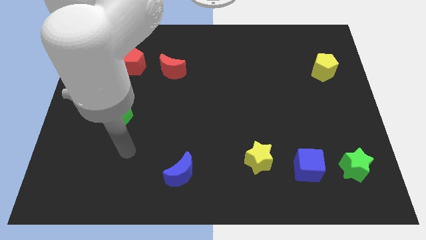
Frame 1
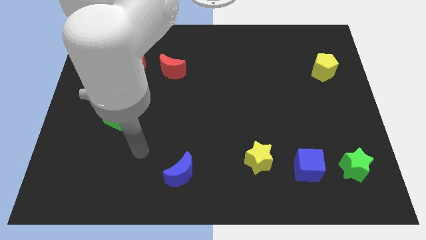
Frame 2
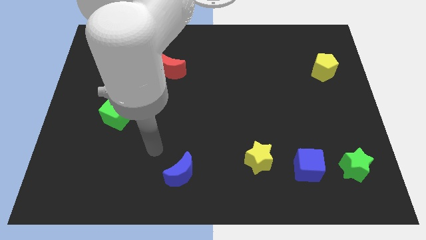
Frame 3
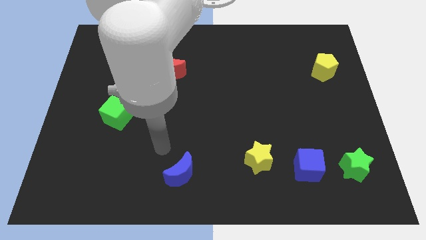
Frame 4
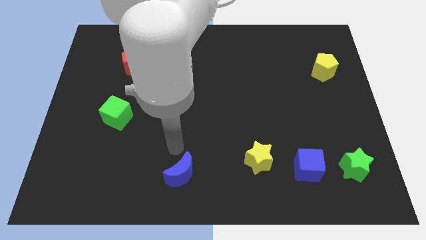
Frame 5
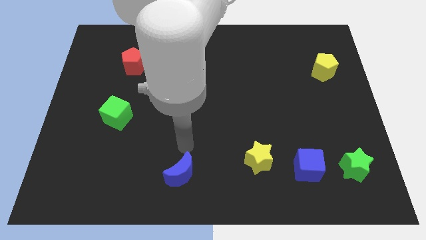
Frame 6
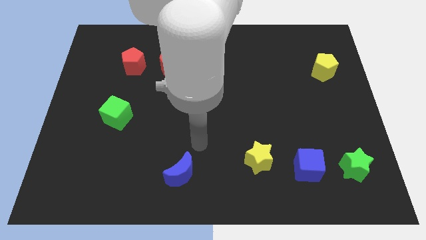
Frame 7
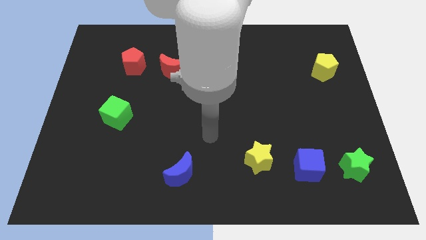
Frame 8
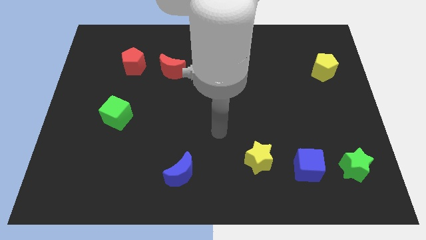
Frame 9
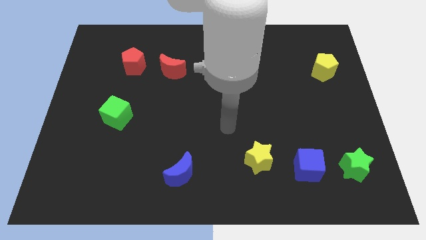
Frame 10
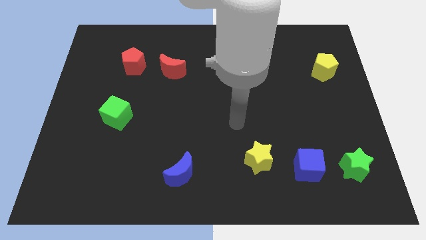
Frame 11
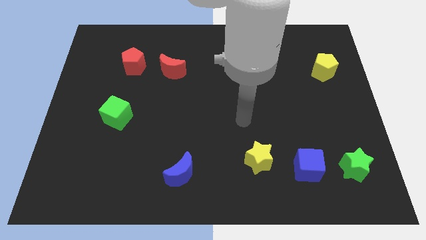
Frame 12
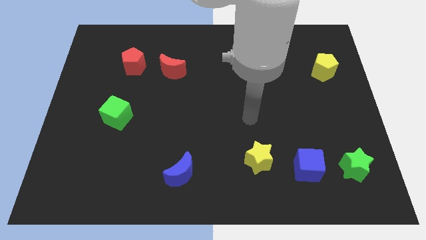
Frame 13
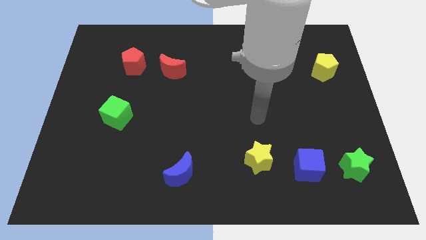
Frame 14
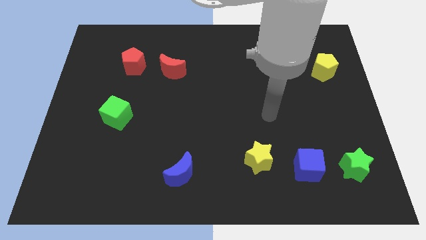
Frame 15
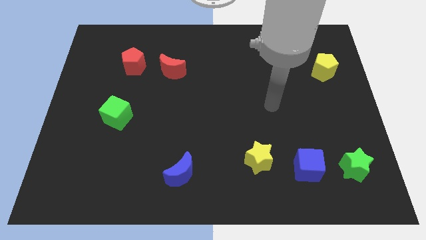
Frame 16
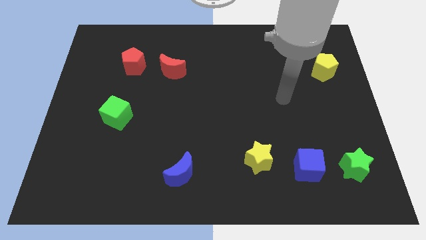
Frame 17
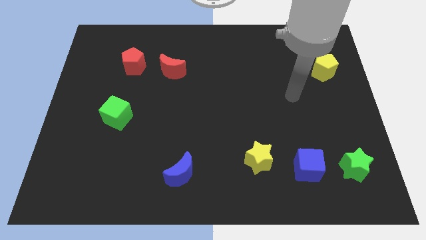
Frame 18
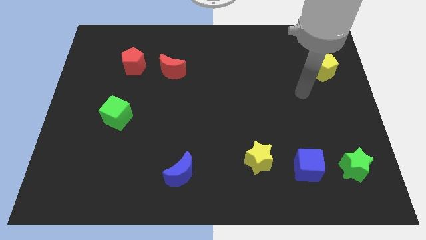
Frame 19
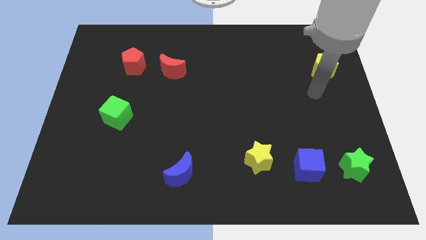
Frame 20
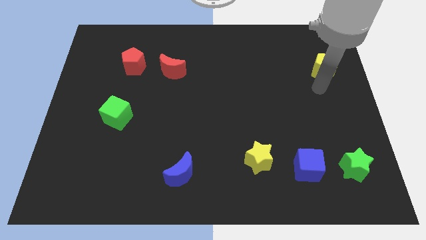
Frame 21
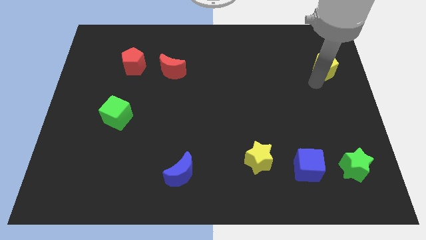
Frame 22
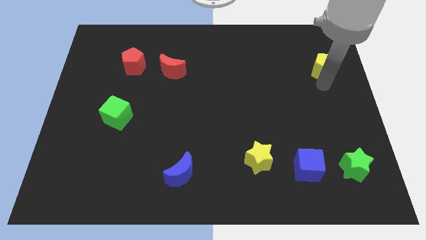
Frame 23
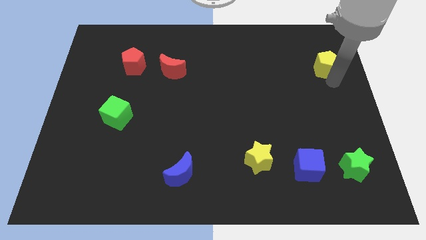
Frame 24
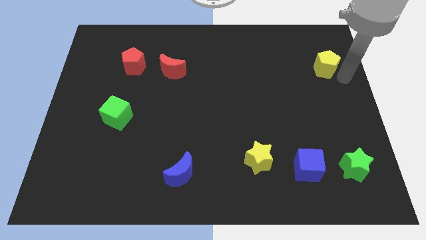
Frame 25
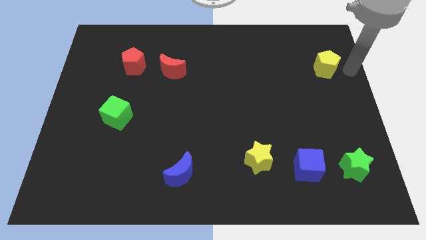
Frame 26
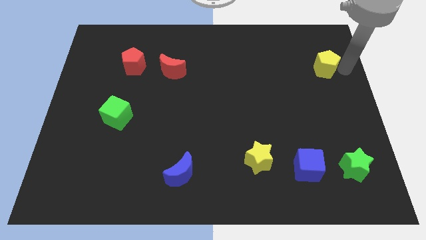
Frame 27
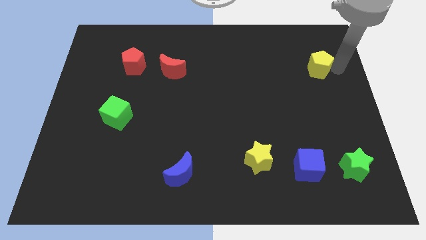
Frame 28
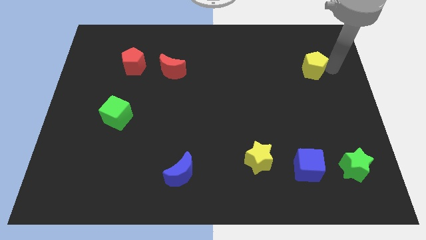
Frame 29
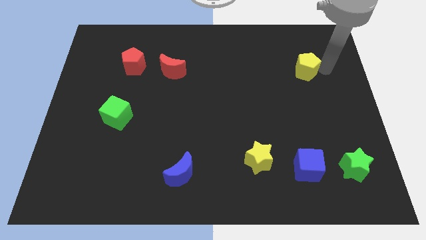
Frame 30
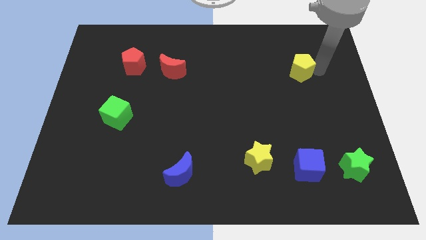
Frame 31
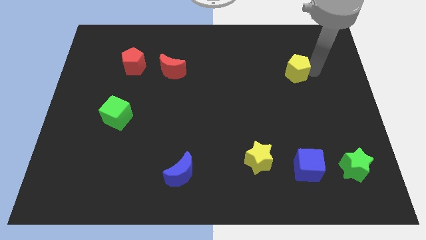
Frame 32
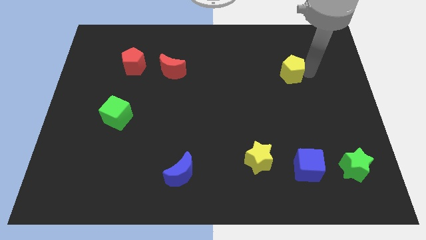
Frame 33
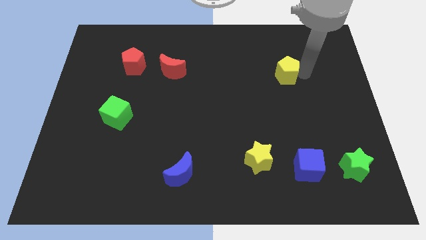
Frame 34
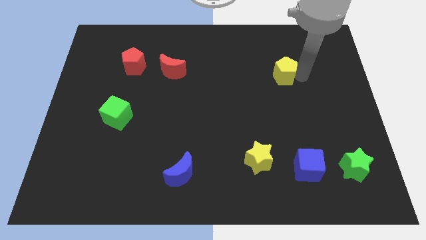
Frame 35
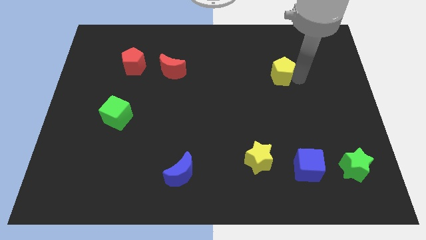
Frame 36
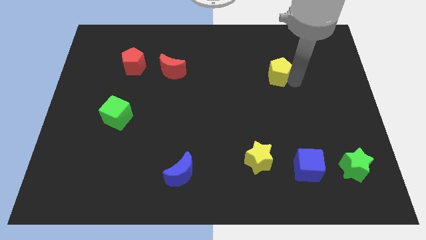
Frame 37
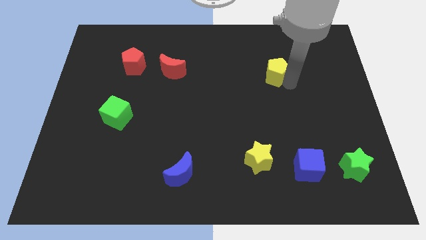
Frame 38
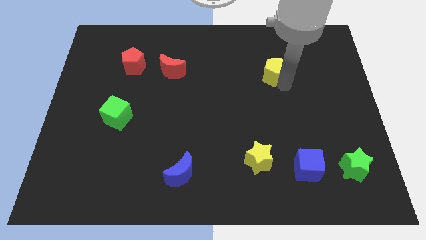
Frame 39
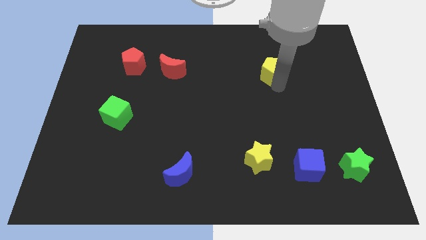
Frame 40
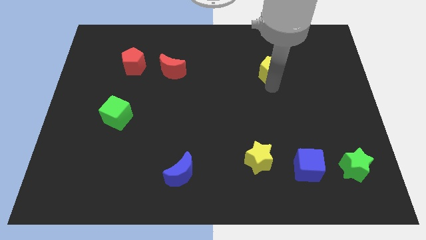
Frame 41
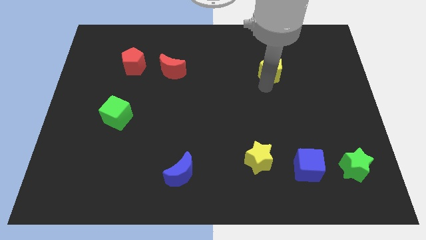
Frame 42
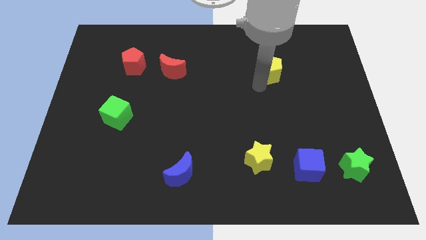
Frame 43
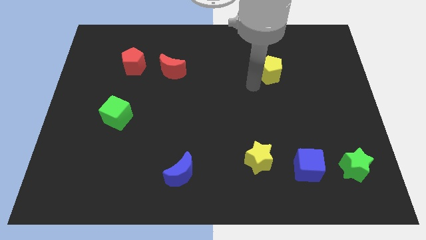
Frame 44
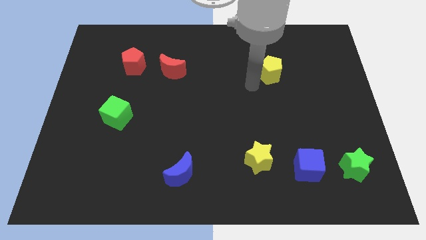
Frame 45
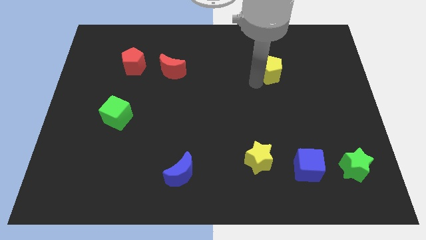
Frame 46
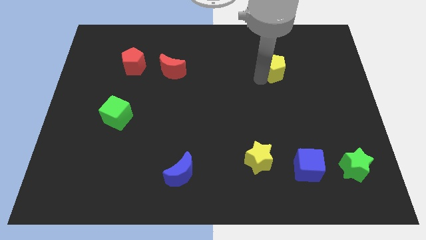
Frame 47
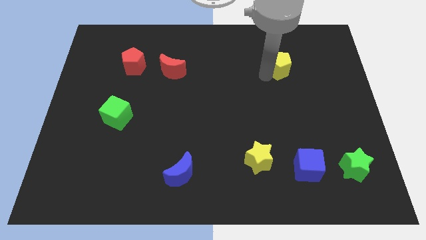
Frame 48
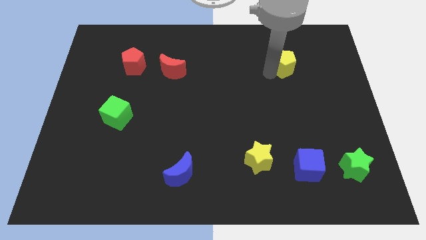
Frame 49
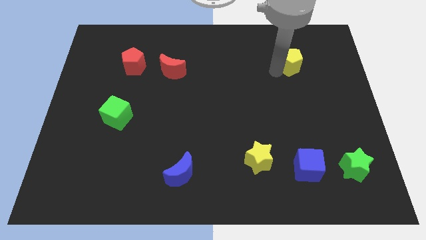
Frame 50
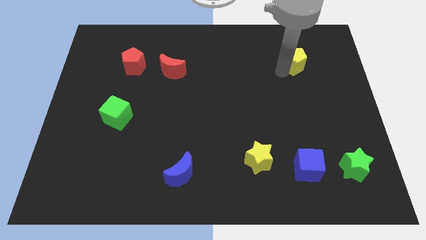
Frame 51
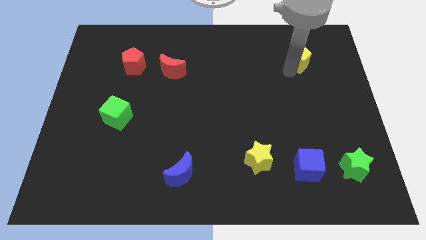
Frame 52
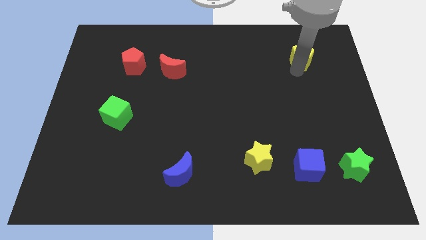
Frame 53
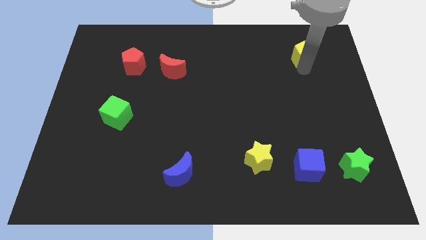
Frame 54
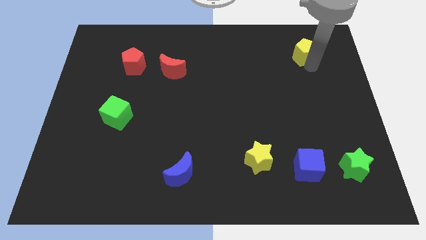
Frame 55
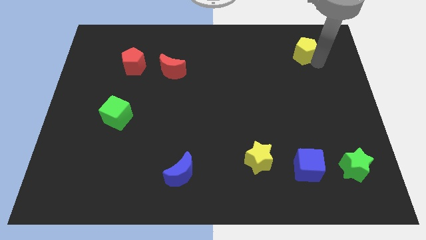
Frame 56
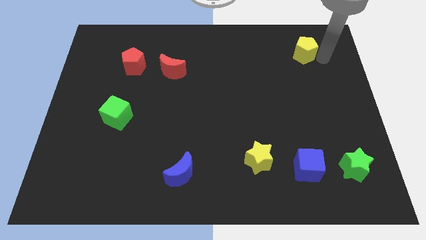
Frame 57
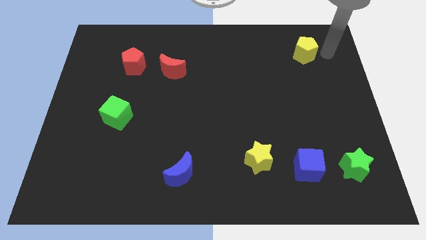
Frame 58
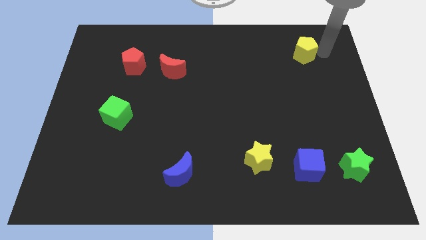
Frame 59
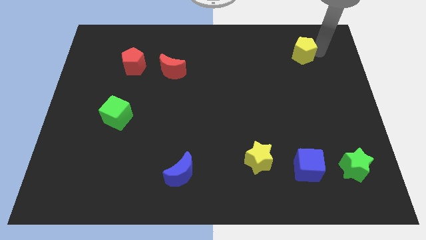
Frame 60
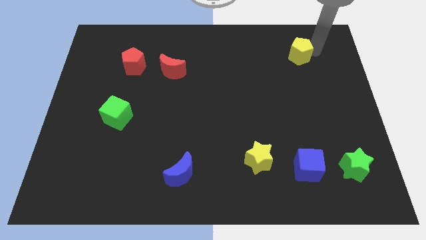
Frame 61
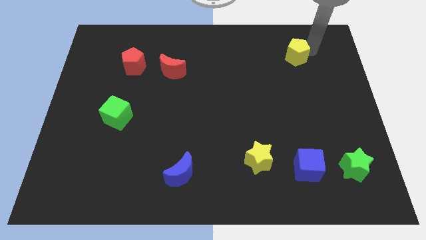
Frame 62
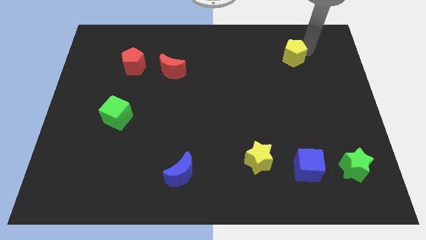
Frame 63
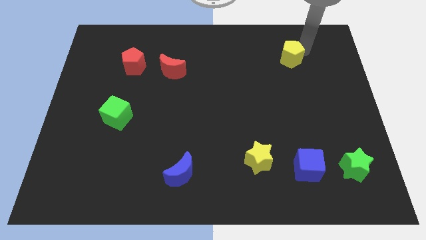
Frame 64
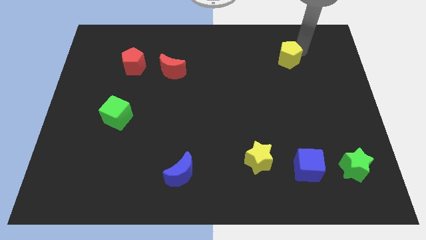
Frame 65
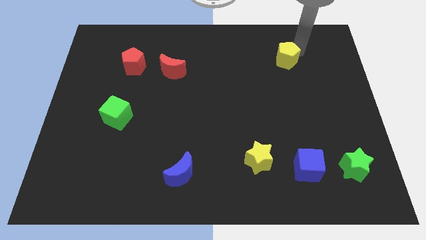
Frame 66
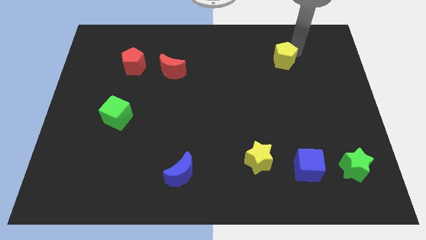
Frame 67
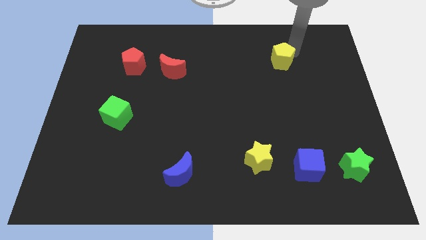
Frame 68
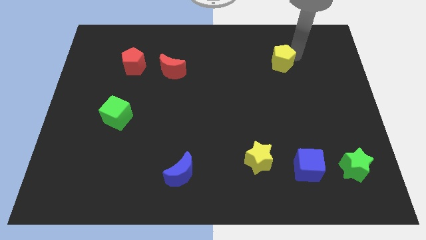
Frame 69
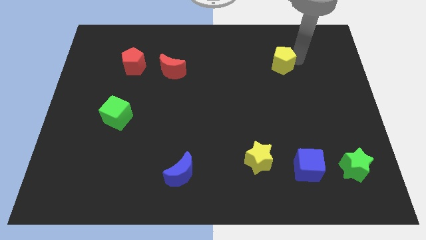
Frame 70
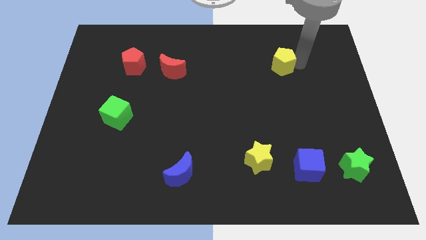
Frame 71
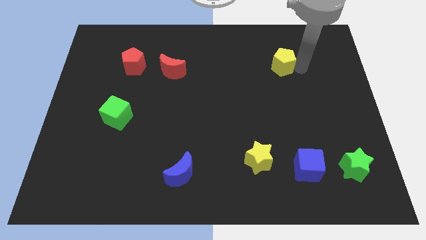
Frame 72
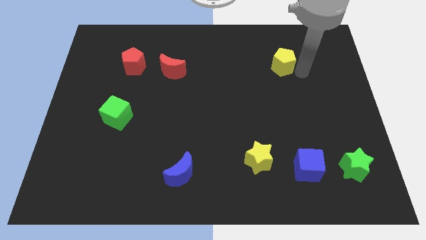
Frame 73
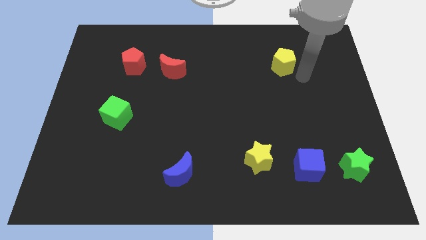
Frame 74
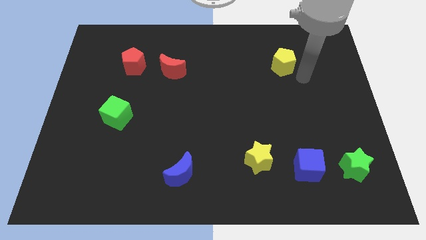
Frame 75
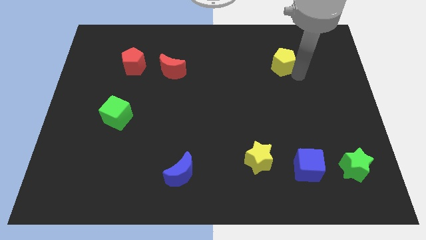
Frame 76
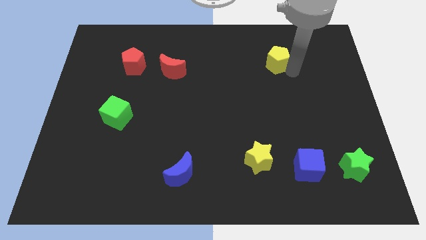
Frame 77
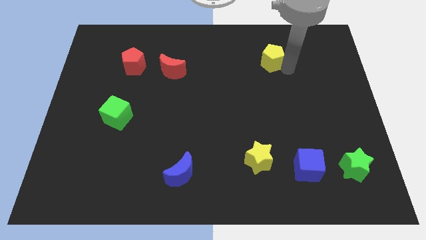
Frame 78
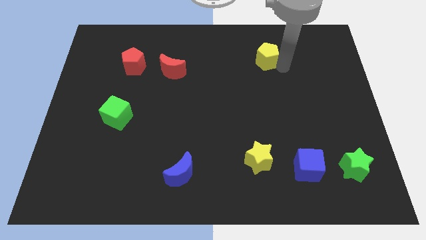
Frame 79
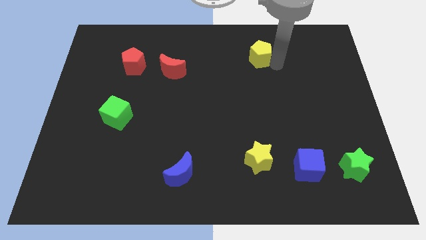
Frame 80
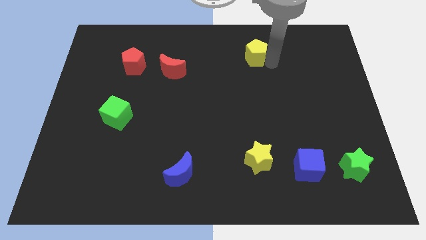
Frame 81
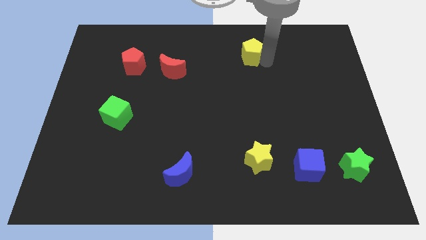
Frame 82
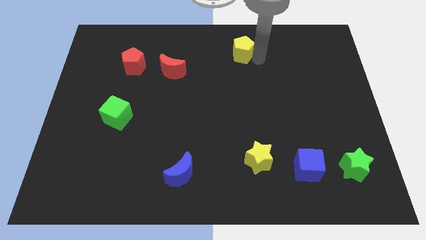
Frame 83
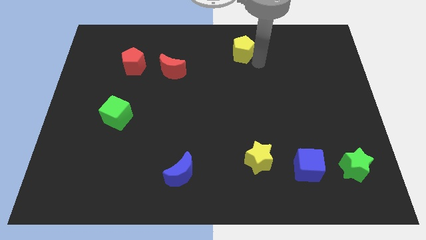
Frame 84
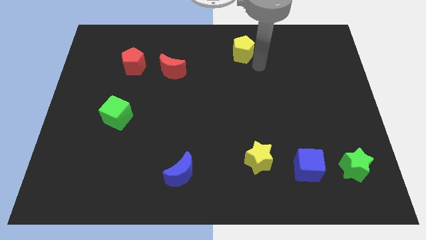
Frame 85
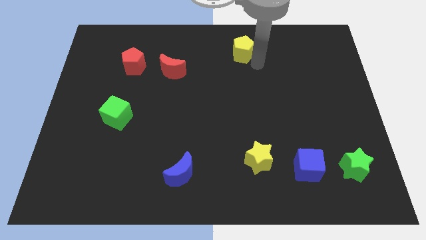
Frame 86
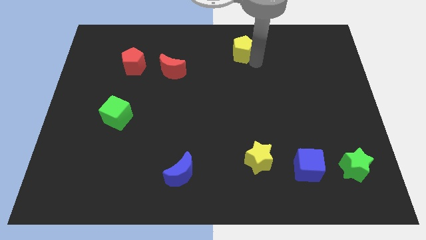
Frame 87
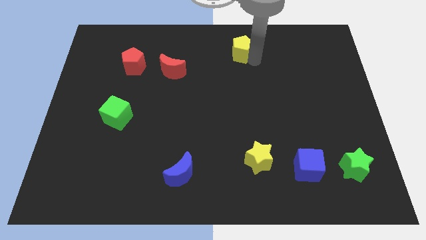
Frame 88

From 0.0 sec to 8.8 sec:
move the yellow pentagon to the top side
